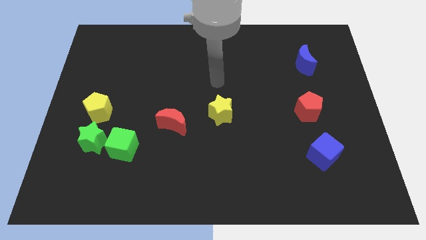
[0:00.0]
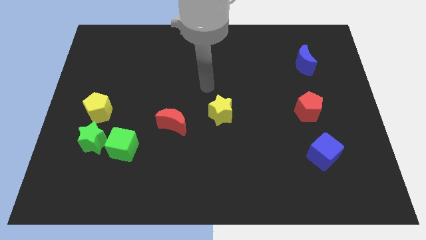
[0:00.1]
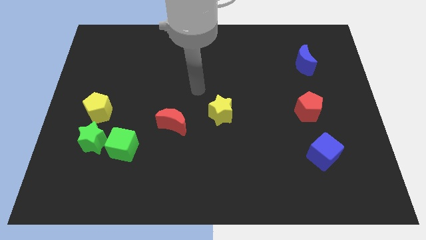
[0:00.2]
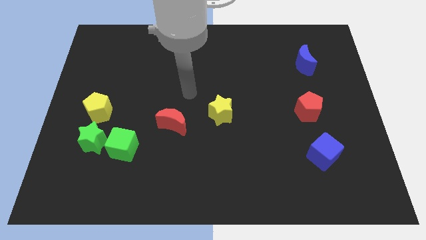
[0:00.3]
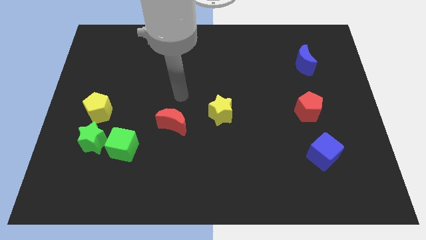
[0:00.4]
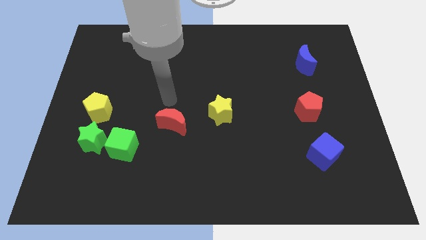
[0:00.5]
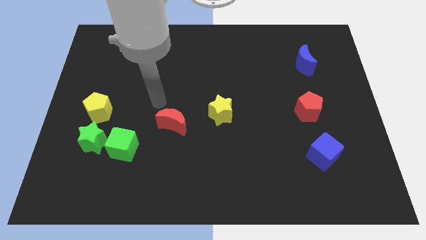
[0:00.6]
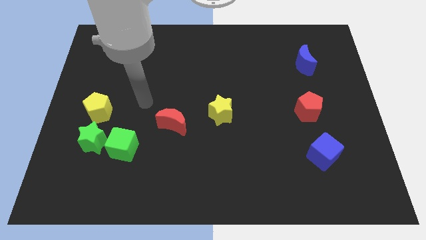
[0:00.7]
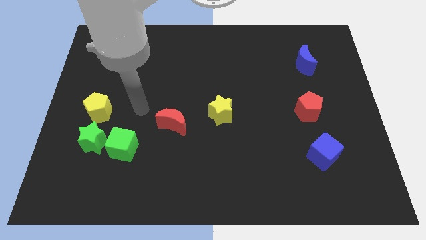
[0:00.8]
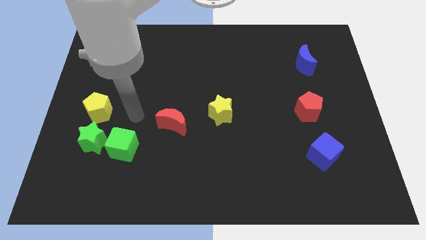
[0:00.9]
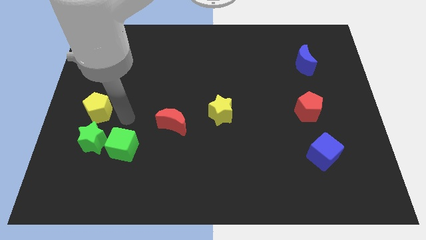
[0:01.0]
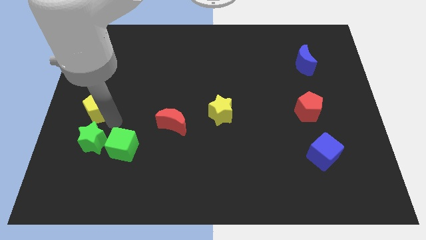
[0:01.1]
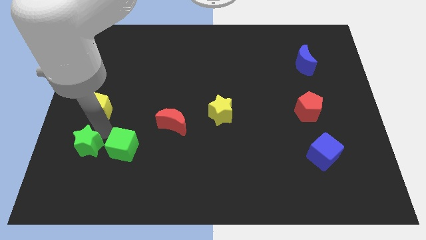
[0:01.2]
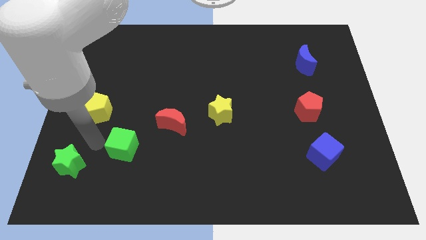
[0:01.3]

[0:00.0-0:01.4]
move the green cube away from the green star

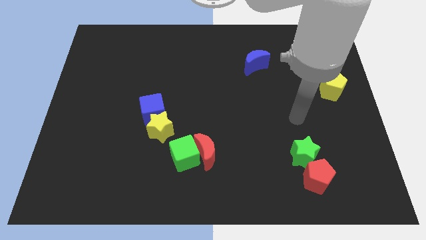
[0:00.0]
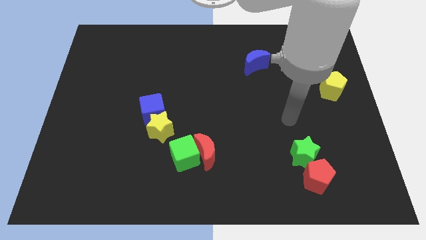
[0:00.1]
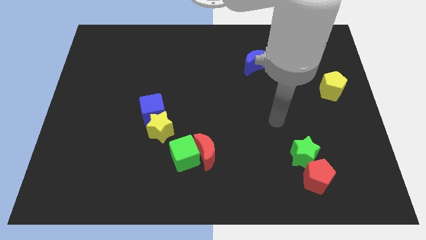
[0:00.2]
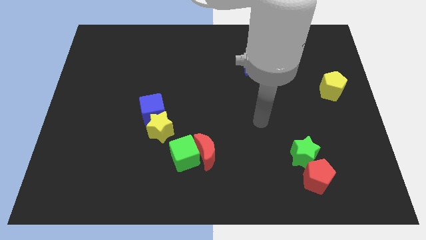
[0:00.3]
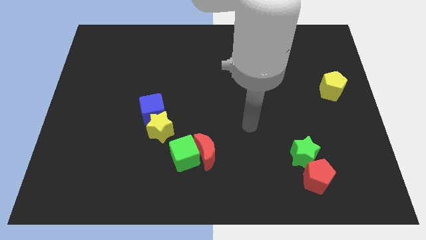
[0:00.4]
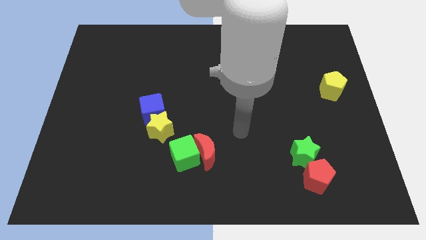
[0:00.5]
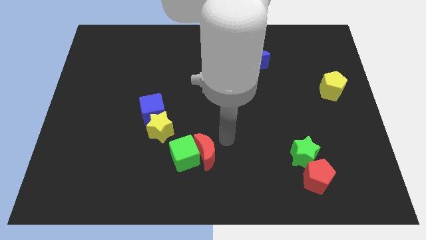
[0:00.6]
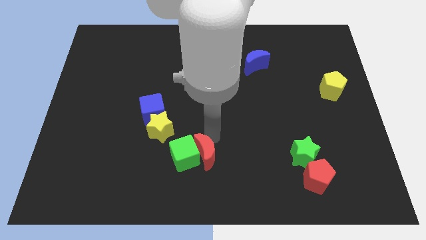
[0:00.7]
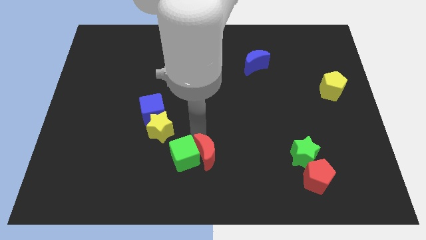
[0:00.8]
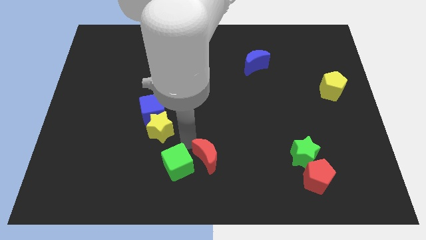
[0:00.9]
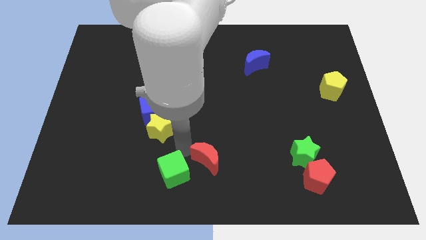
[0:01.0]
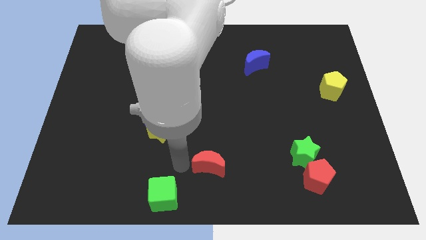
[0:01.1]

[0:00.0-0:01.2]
pull the red moon apart from the green cube

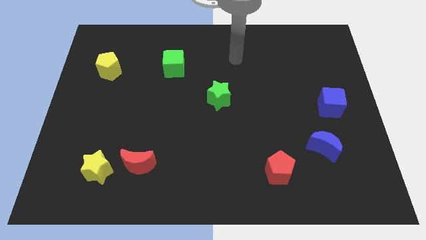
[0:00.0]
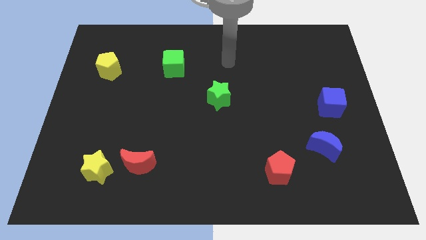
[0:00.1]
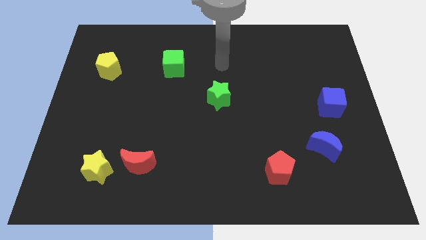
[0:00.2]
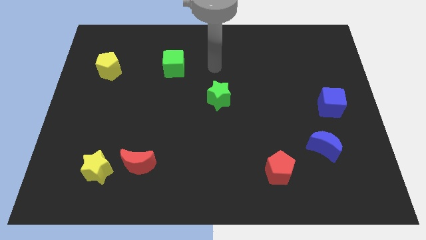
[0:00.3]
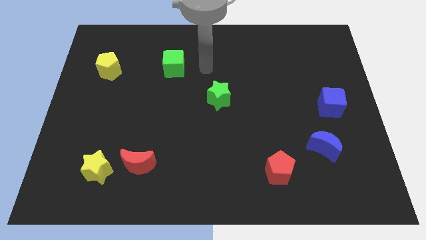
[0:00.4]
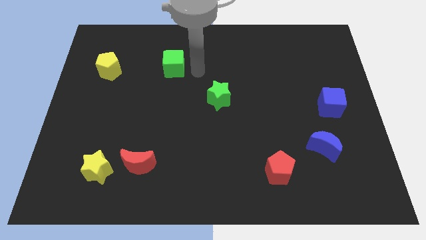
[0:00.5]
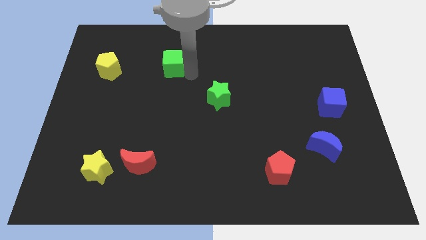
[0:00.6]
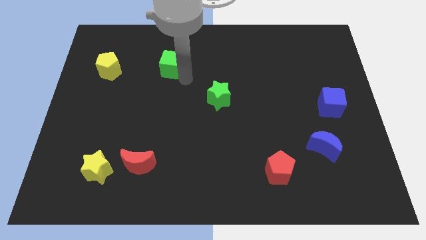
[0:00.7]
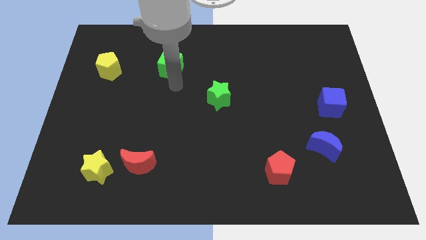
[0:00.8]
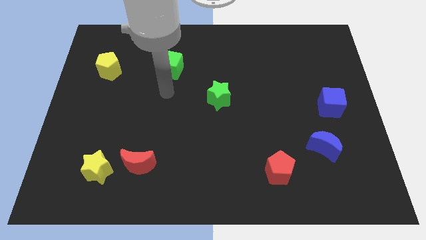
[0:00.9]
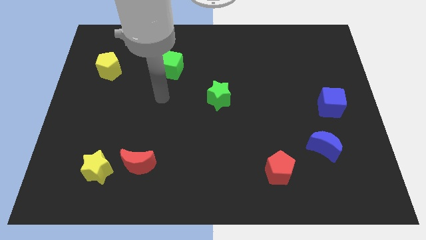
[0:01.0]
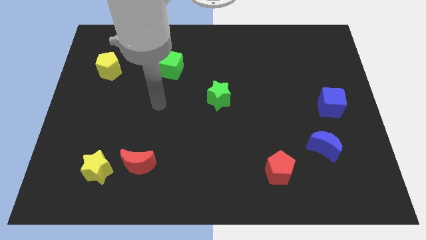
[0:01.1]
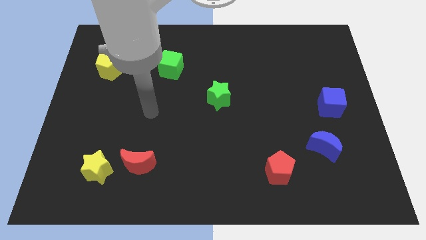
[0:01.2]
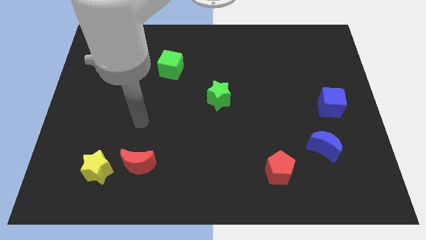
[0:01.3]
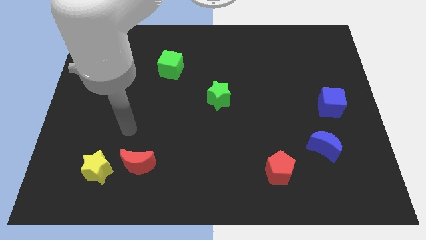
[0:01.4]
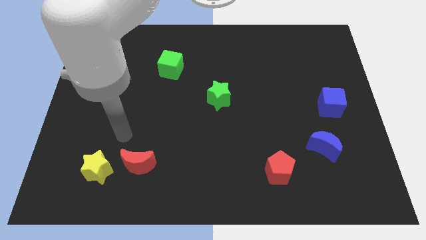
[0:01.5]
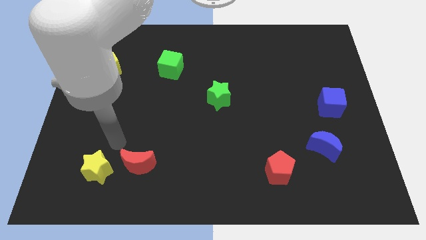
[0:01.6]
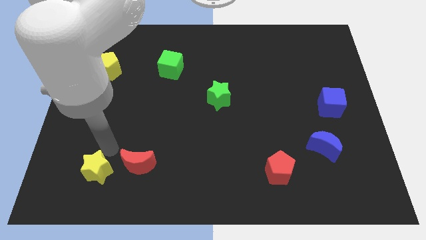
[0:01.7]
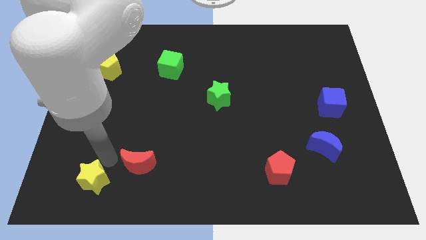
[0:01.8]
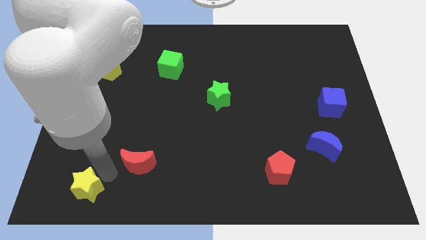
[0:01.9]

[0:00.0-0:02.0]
separate the red moon from the yellow star

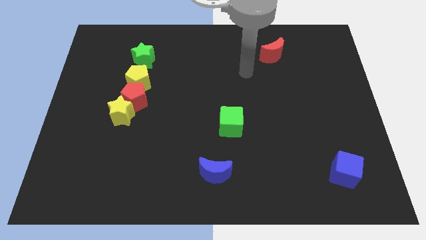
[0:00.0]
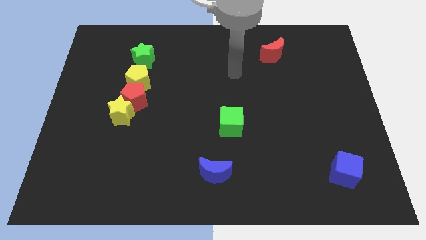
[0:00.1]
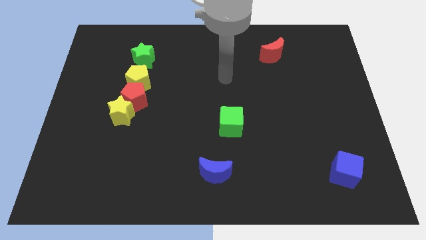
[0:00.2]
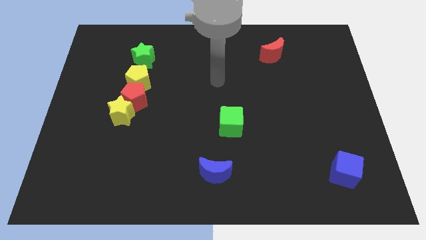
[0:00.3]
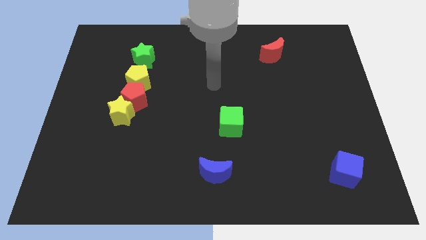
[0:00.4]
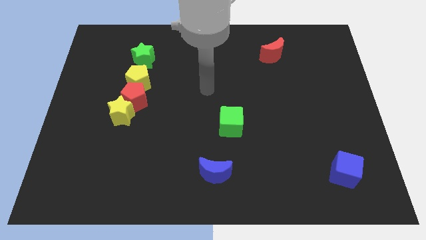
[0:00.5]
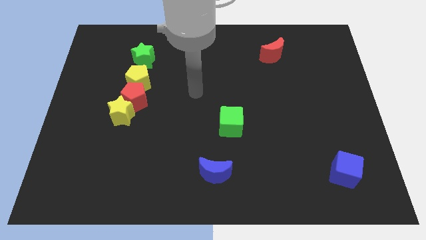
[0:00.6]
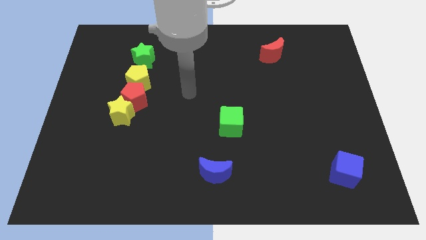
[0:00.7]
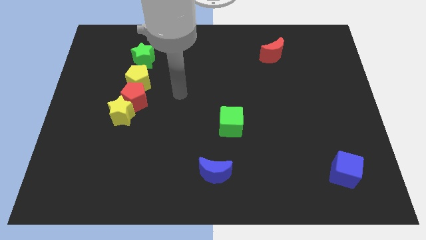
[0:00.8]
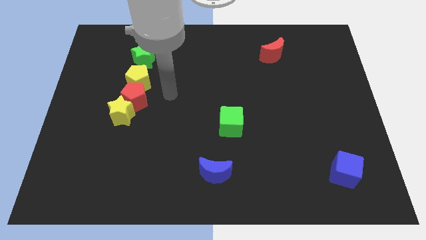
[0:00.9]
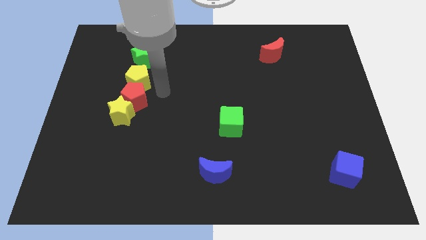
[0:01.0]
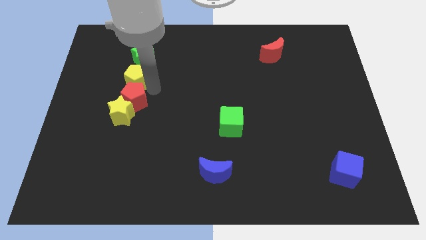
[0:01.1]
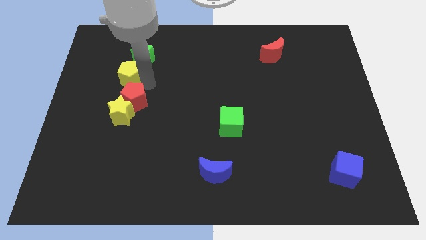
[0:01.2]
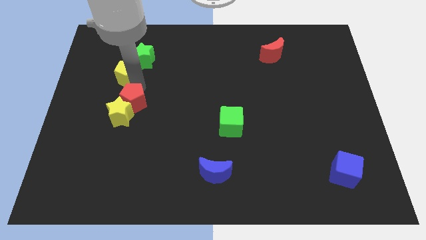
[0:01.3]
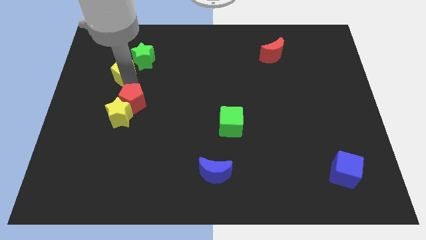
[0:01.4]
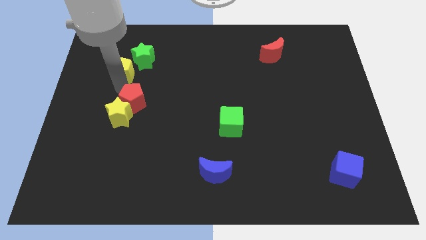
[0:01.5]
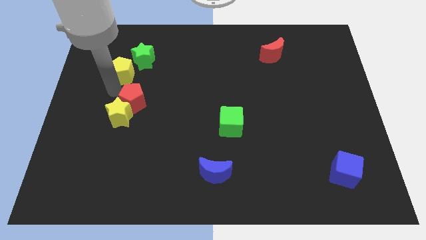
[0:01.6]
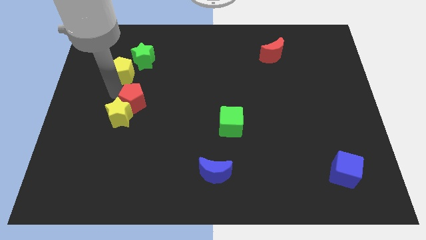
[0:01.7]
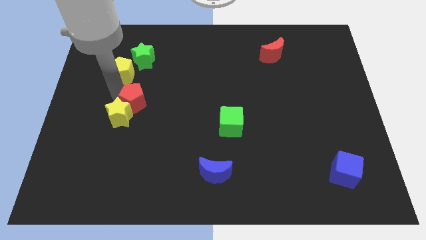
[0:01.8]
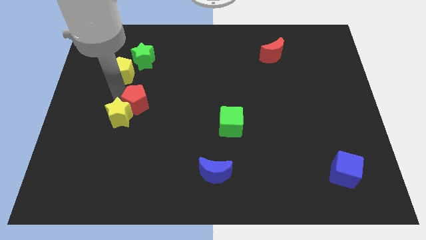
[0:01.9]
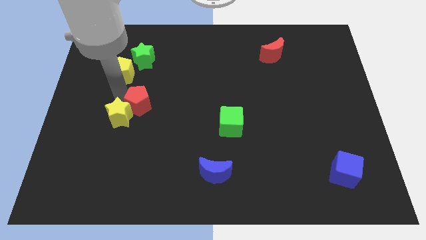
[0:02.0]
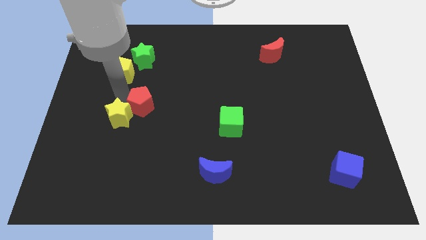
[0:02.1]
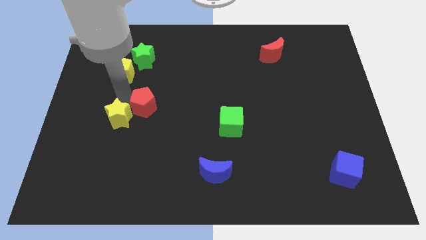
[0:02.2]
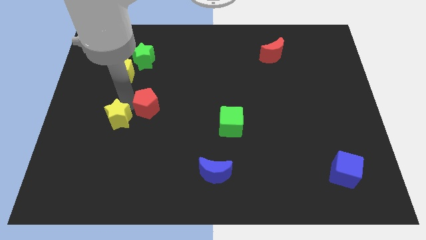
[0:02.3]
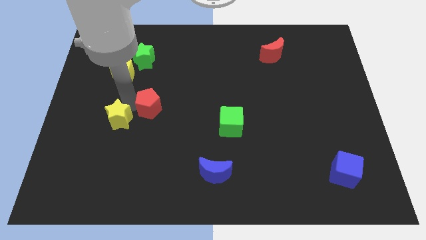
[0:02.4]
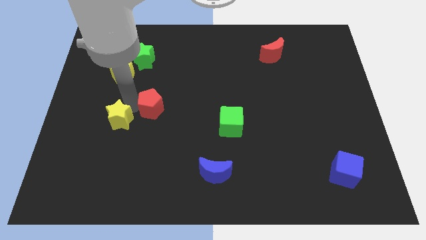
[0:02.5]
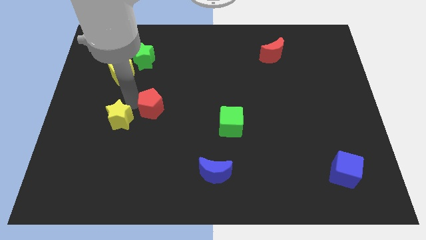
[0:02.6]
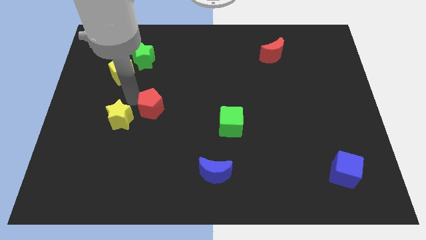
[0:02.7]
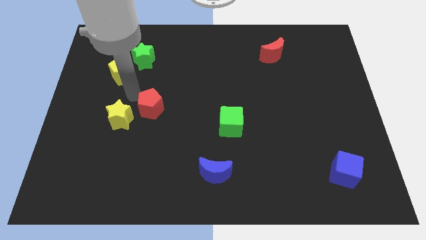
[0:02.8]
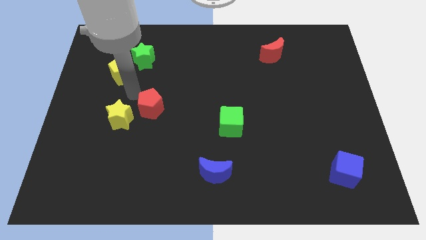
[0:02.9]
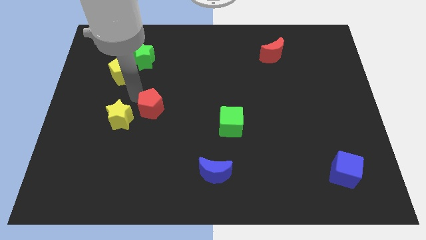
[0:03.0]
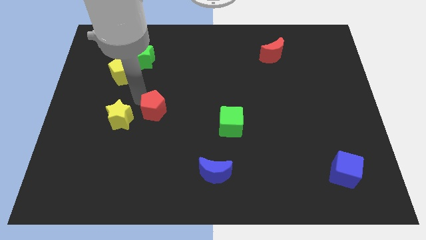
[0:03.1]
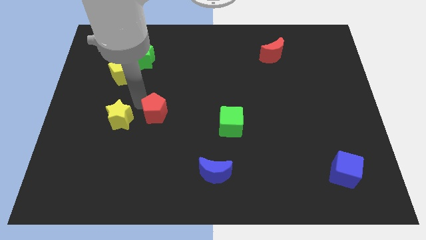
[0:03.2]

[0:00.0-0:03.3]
pull the red pentagon apart from the yellow star and yellow pentagon

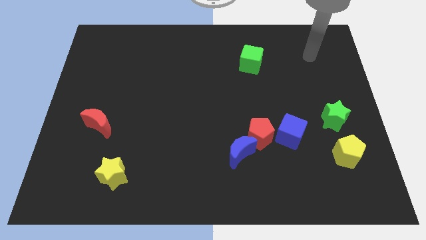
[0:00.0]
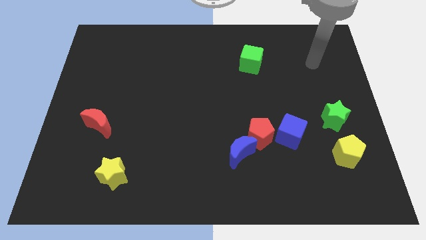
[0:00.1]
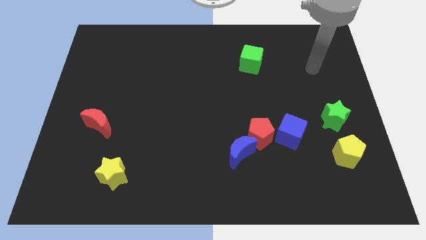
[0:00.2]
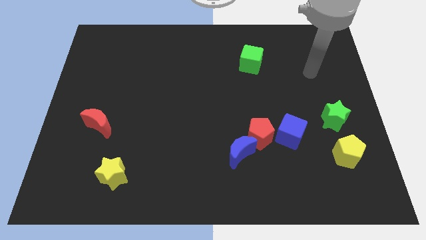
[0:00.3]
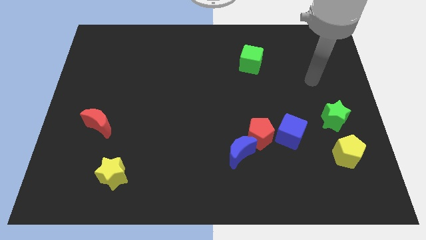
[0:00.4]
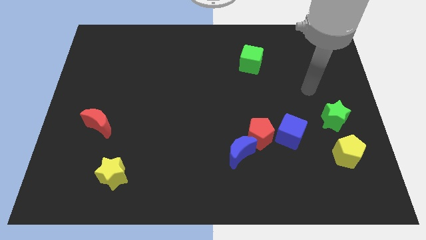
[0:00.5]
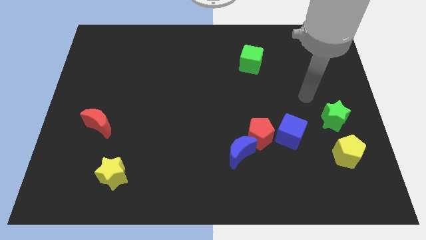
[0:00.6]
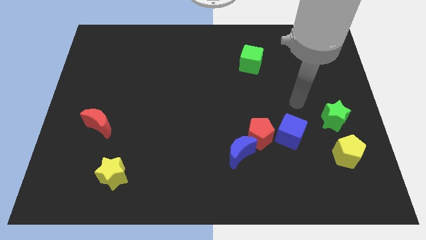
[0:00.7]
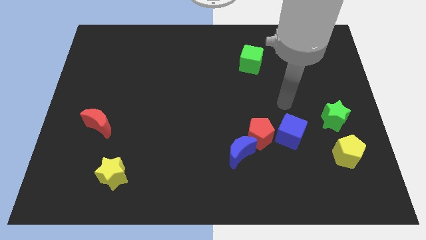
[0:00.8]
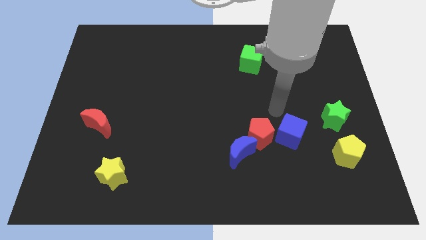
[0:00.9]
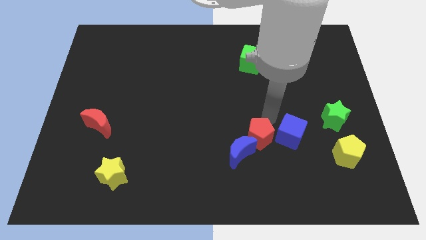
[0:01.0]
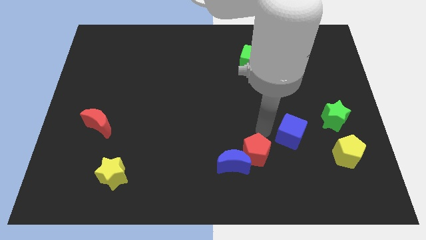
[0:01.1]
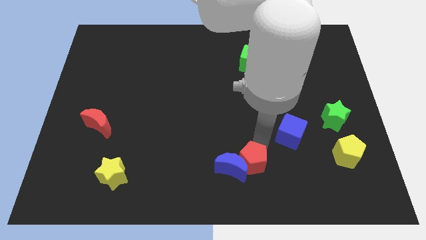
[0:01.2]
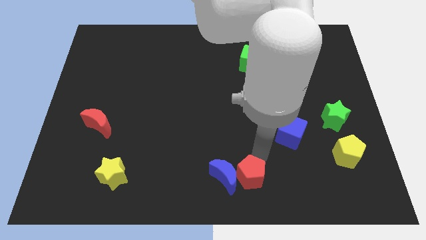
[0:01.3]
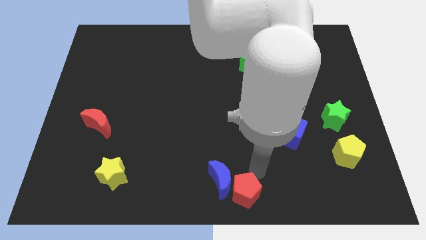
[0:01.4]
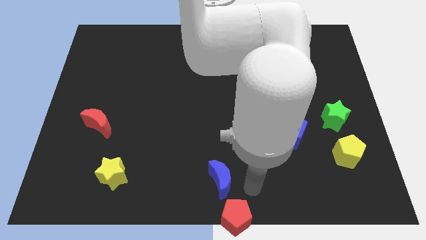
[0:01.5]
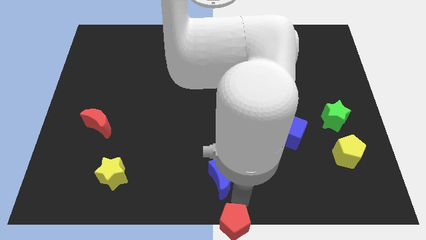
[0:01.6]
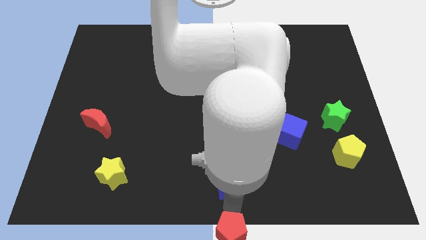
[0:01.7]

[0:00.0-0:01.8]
pull the blue moon apart from the red pentagon
